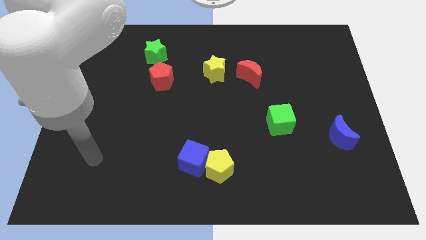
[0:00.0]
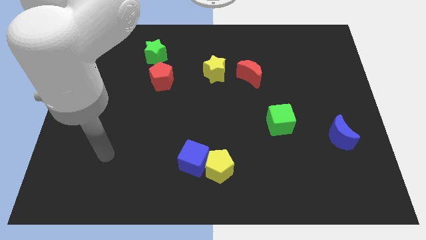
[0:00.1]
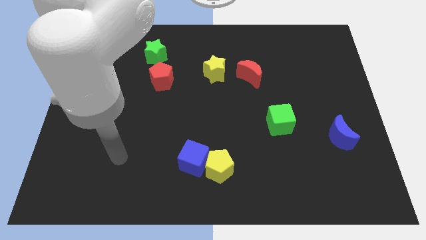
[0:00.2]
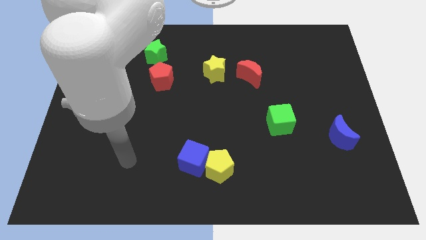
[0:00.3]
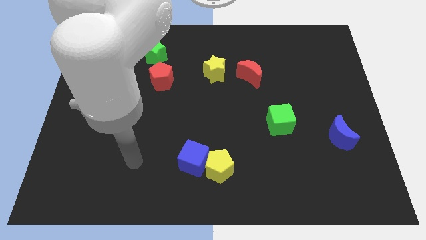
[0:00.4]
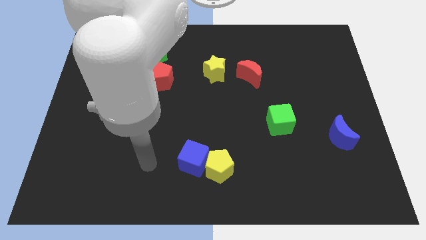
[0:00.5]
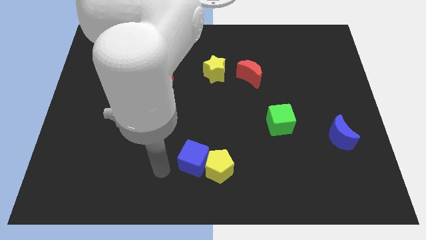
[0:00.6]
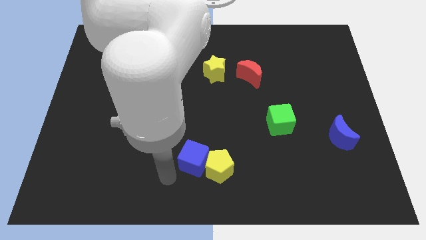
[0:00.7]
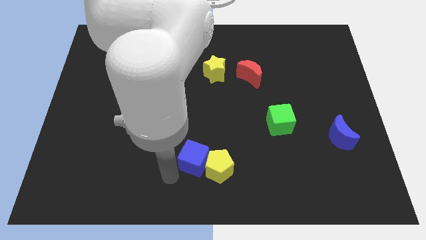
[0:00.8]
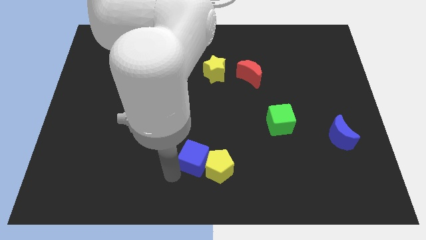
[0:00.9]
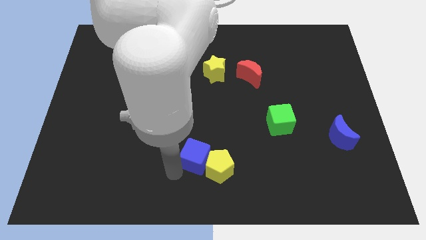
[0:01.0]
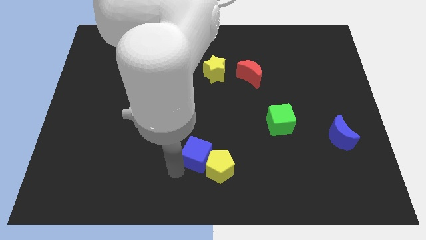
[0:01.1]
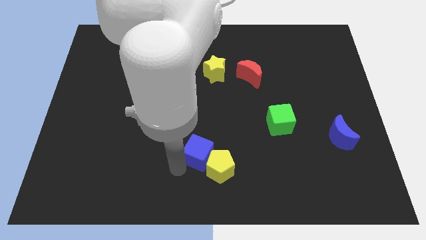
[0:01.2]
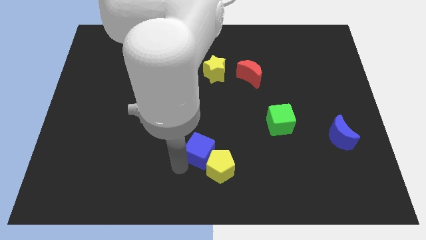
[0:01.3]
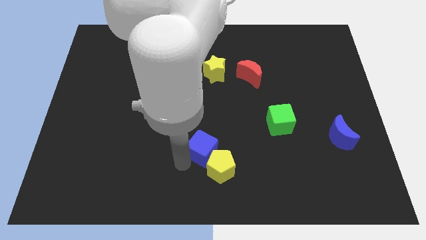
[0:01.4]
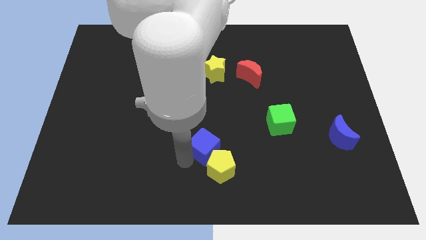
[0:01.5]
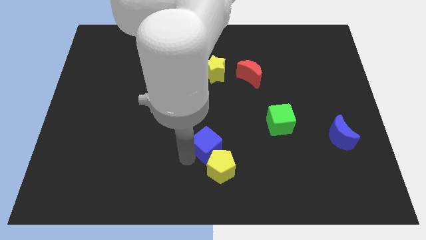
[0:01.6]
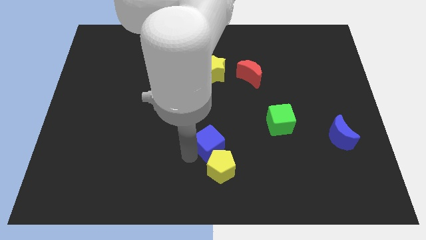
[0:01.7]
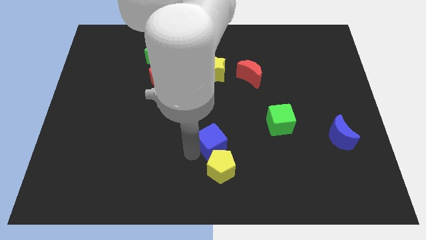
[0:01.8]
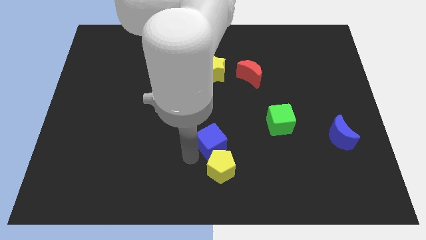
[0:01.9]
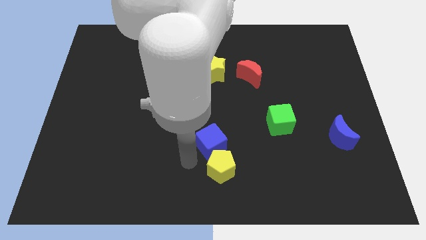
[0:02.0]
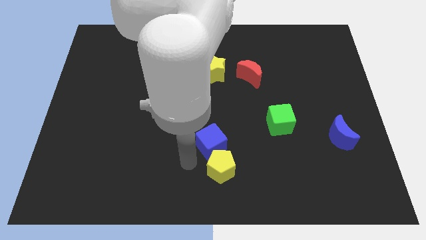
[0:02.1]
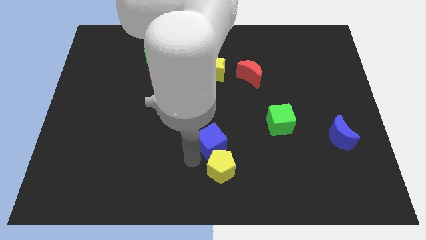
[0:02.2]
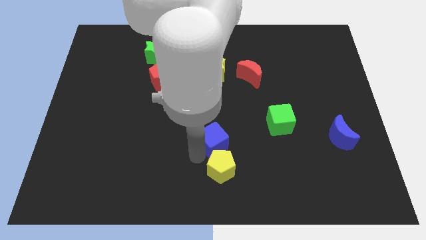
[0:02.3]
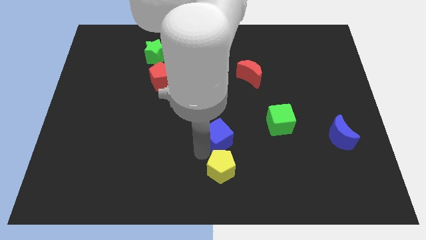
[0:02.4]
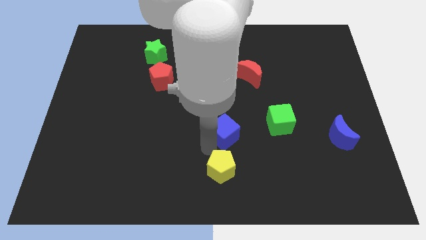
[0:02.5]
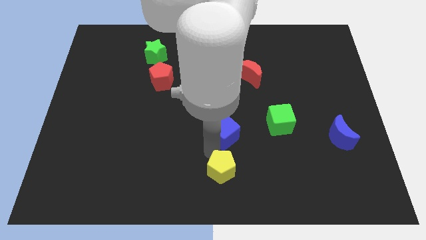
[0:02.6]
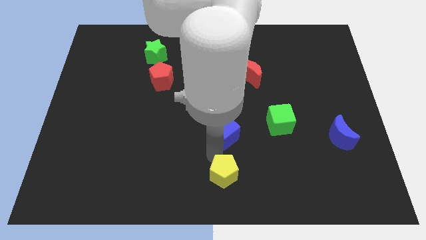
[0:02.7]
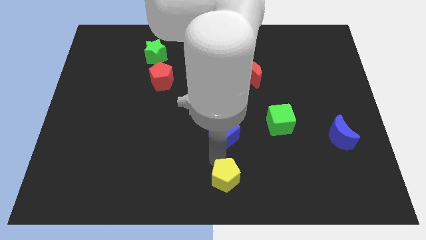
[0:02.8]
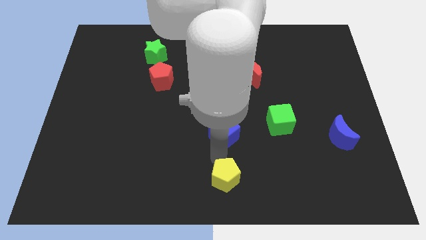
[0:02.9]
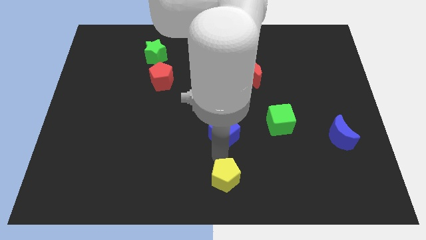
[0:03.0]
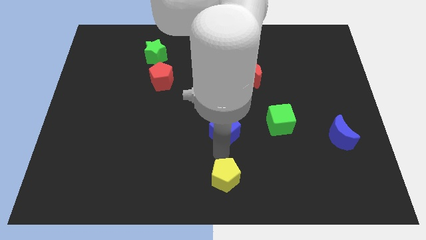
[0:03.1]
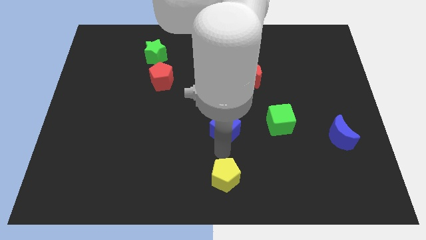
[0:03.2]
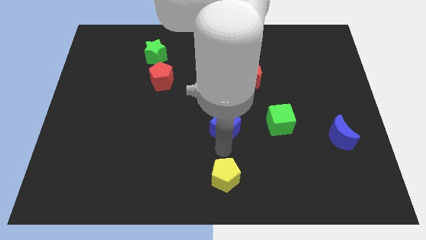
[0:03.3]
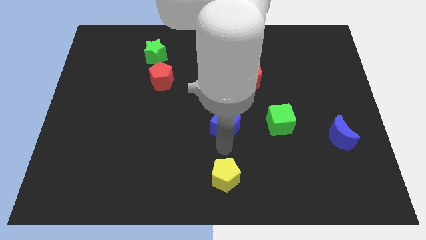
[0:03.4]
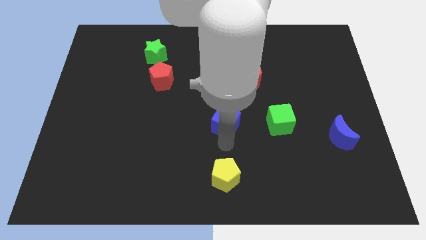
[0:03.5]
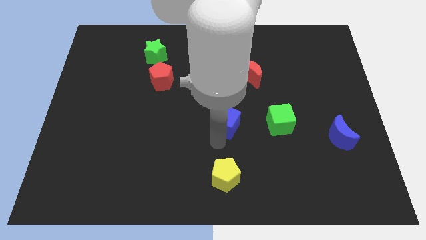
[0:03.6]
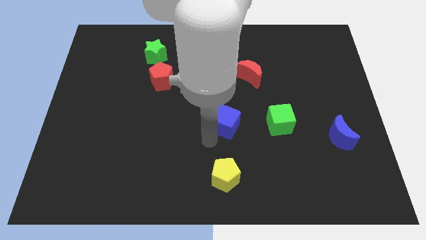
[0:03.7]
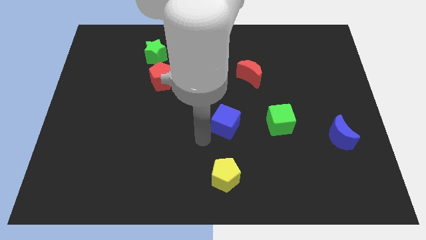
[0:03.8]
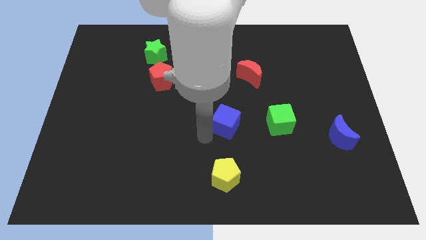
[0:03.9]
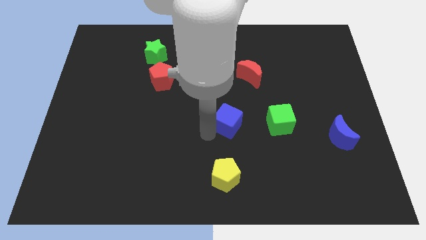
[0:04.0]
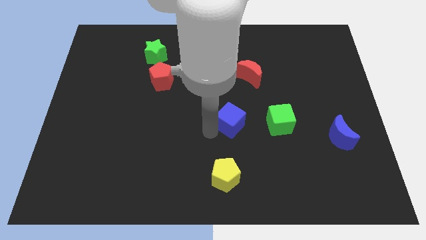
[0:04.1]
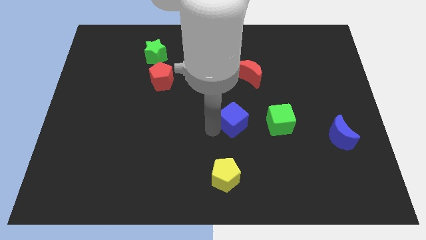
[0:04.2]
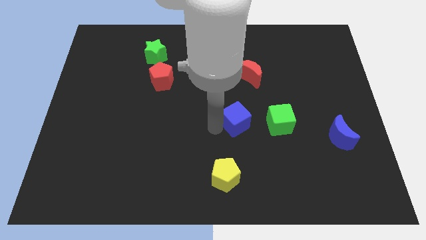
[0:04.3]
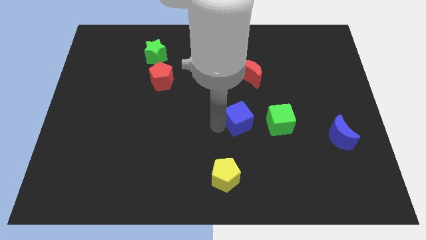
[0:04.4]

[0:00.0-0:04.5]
push the blue cube to the bottom side of the red moon

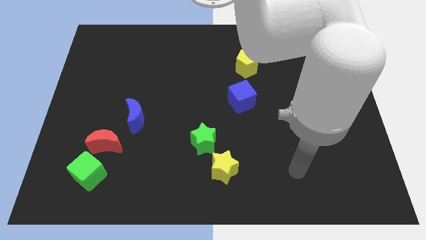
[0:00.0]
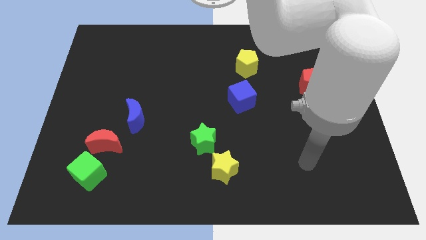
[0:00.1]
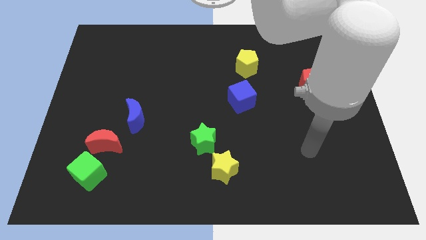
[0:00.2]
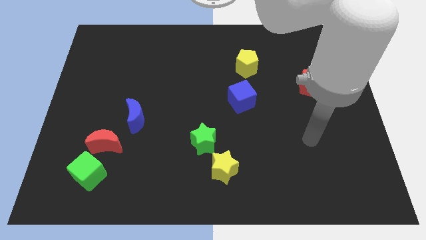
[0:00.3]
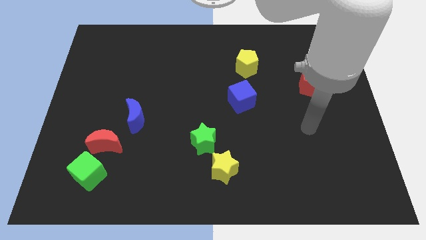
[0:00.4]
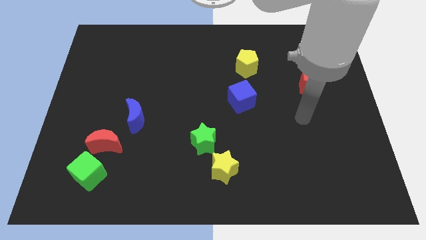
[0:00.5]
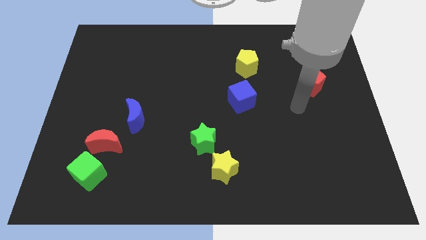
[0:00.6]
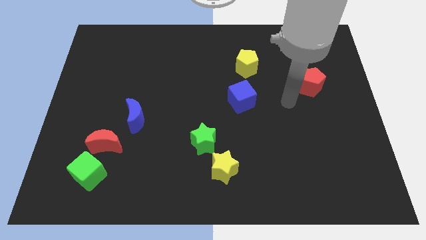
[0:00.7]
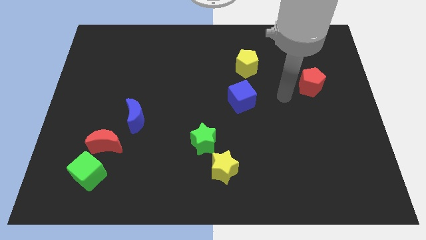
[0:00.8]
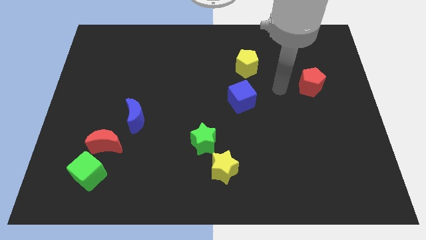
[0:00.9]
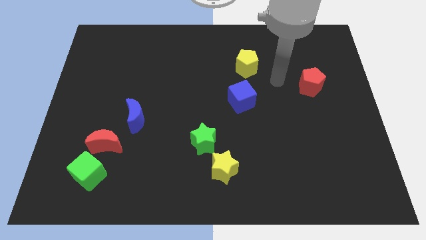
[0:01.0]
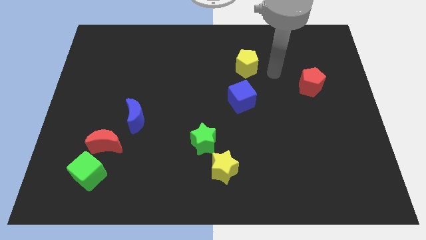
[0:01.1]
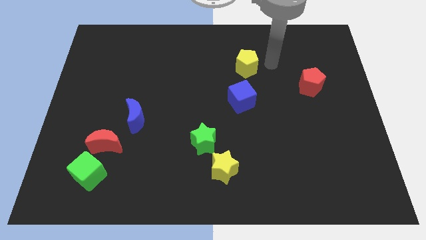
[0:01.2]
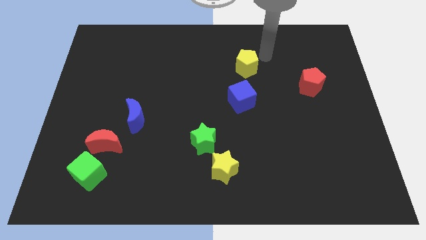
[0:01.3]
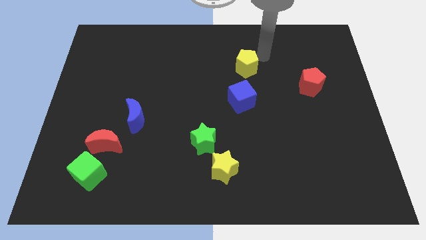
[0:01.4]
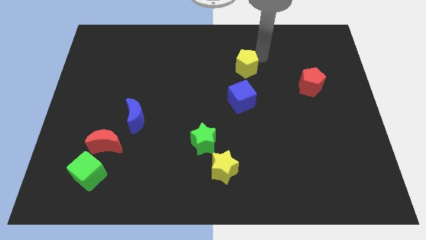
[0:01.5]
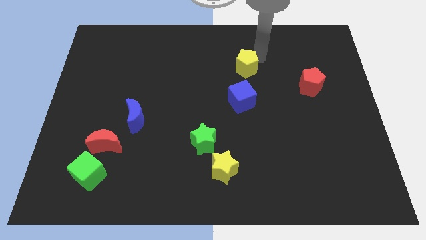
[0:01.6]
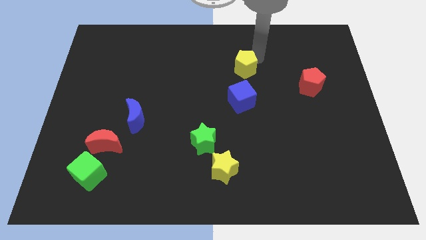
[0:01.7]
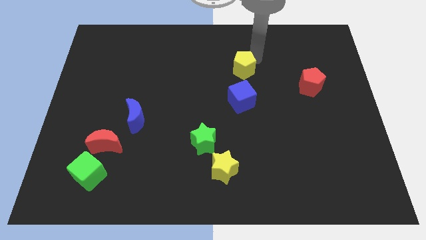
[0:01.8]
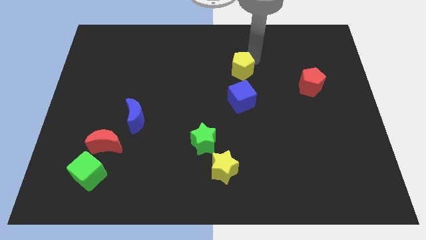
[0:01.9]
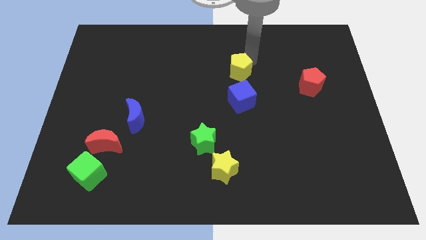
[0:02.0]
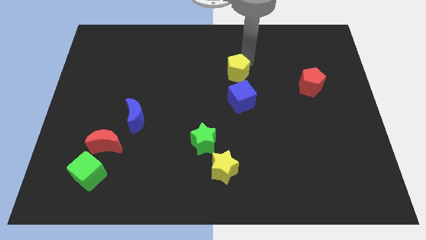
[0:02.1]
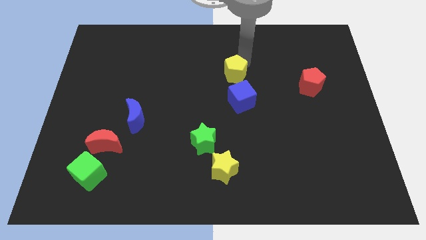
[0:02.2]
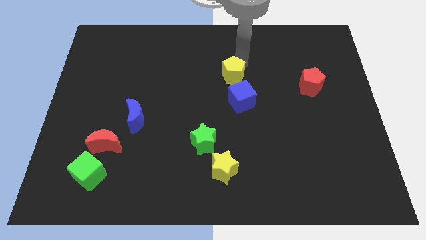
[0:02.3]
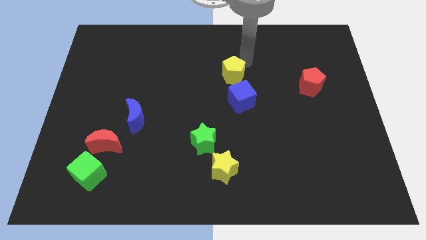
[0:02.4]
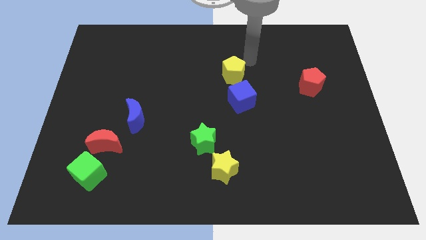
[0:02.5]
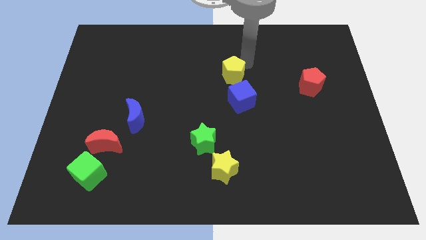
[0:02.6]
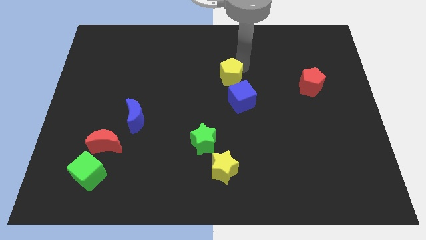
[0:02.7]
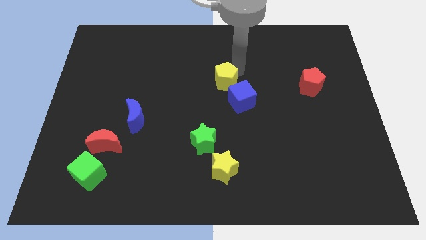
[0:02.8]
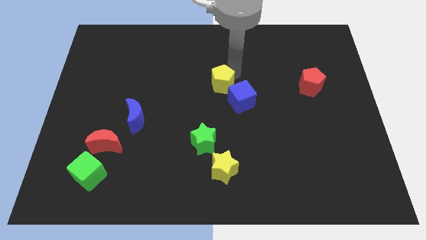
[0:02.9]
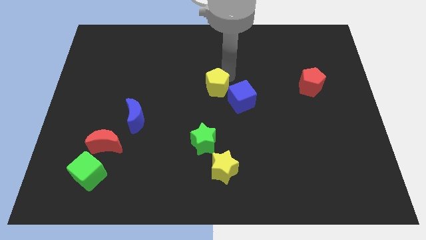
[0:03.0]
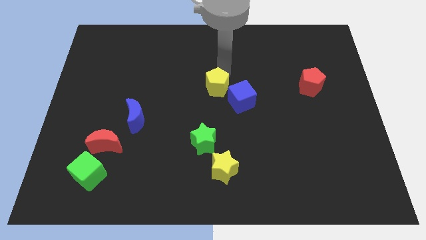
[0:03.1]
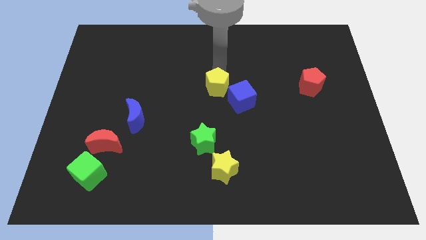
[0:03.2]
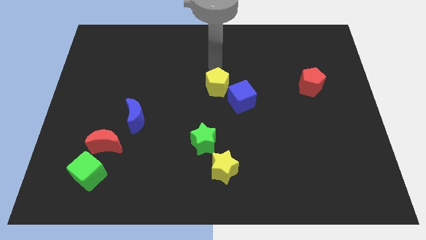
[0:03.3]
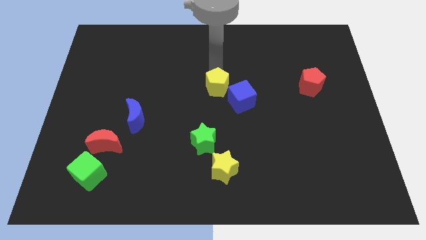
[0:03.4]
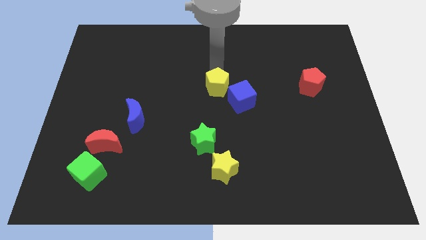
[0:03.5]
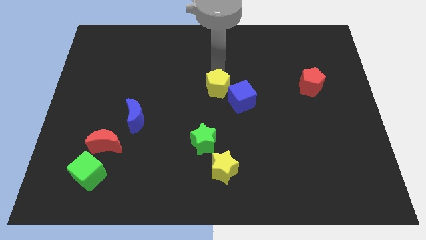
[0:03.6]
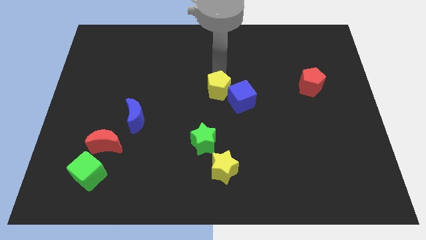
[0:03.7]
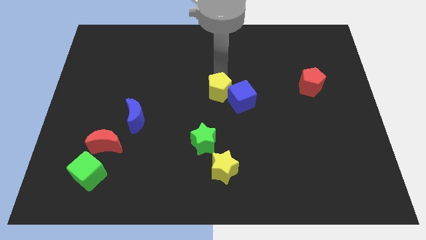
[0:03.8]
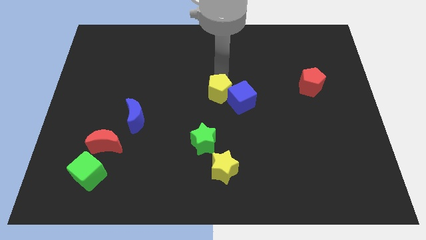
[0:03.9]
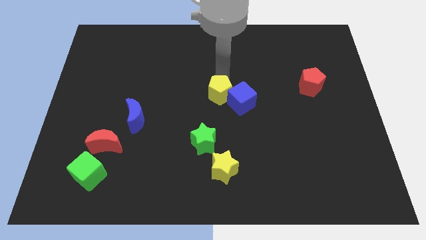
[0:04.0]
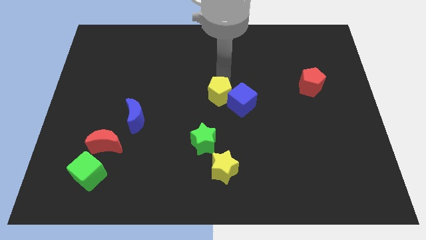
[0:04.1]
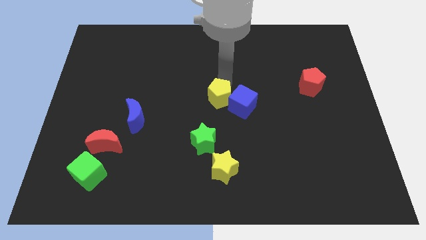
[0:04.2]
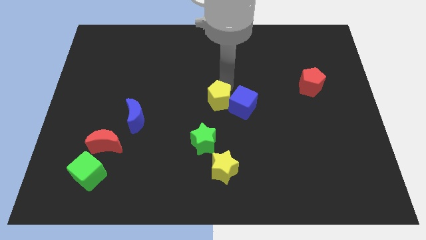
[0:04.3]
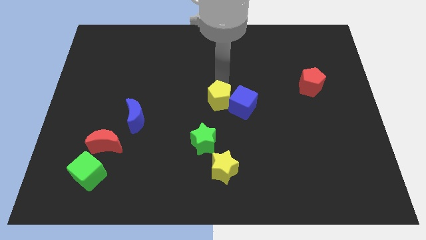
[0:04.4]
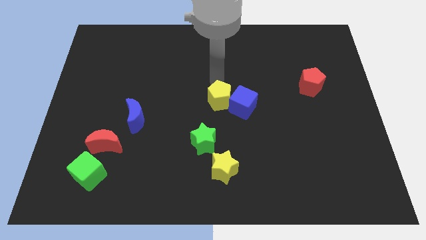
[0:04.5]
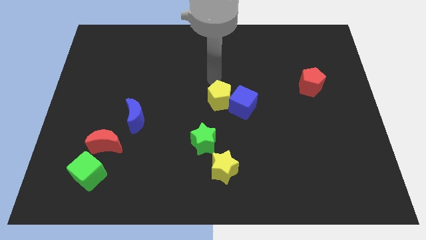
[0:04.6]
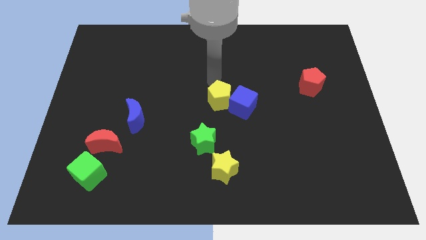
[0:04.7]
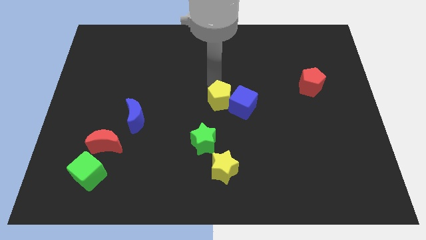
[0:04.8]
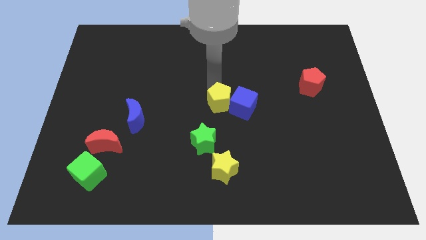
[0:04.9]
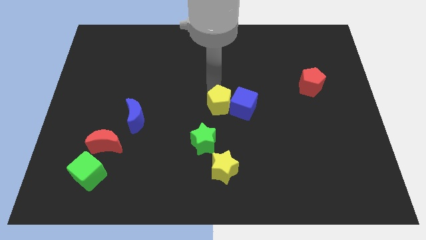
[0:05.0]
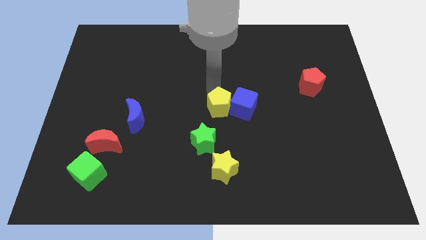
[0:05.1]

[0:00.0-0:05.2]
move the yellow pentagon to the top right side of the green star
